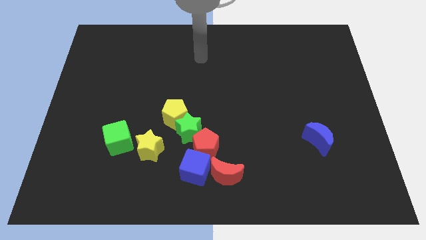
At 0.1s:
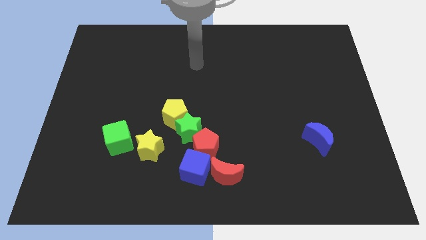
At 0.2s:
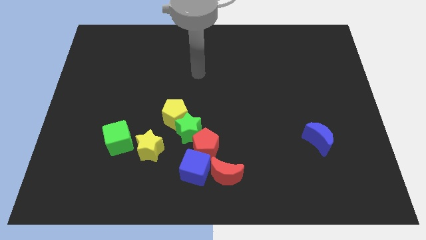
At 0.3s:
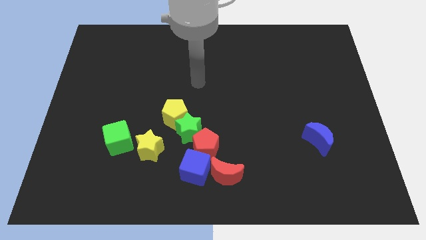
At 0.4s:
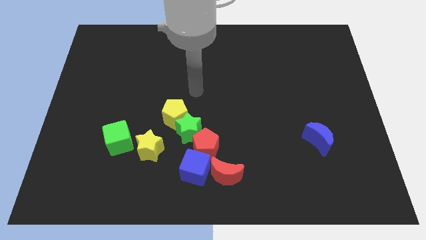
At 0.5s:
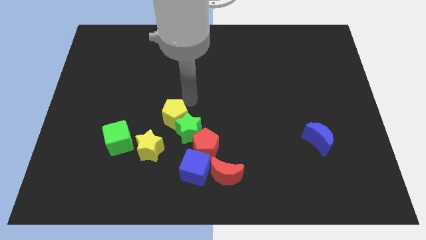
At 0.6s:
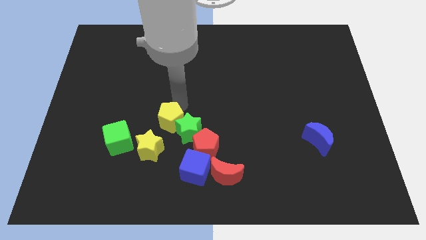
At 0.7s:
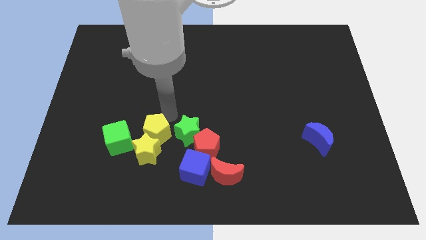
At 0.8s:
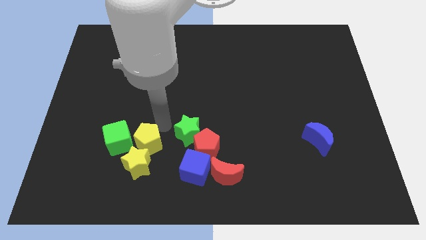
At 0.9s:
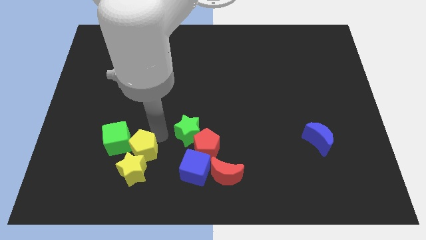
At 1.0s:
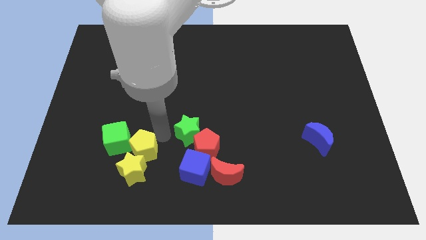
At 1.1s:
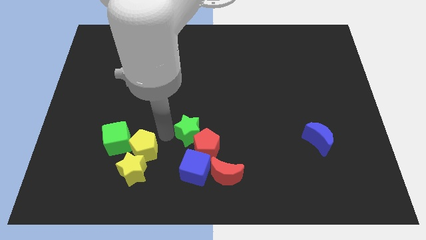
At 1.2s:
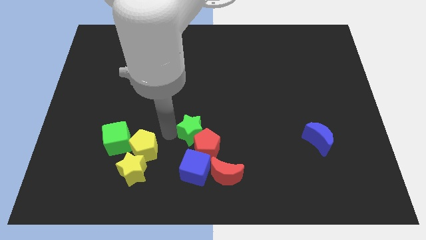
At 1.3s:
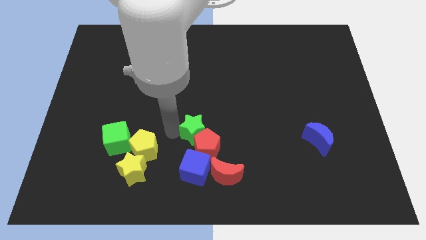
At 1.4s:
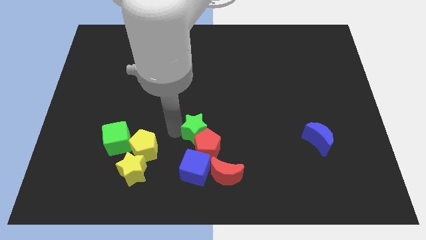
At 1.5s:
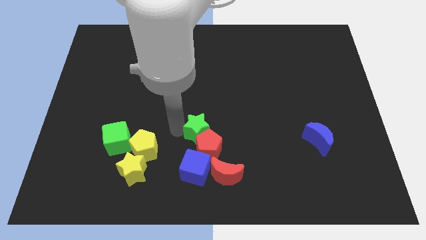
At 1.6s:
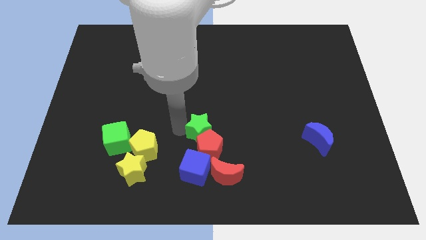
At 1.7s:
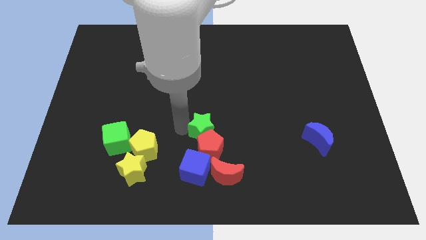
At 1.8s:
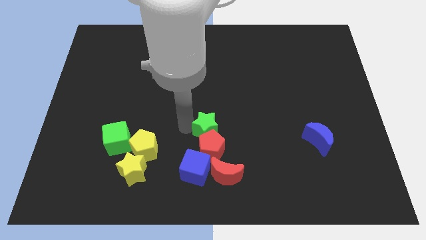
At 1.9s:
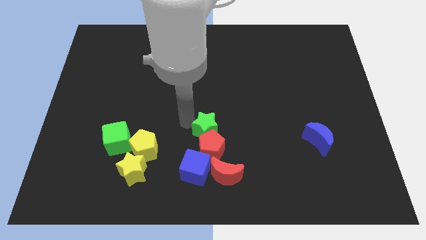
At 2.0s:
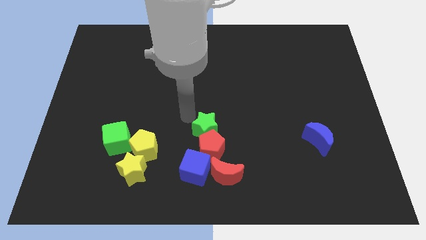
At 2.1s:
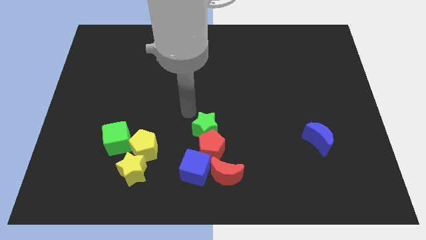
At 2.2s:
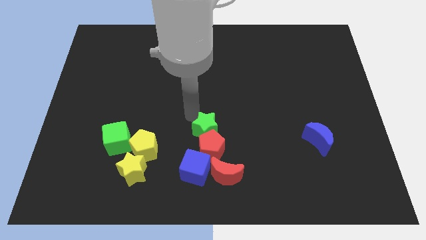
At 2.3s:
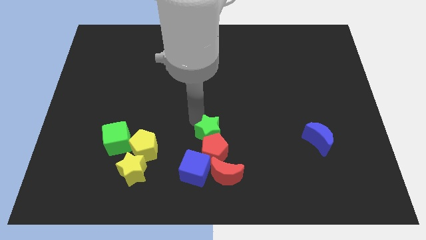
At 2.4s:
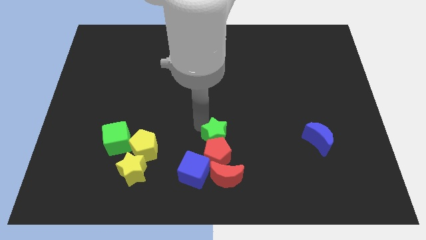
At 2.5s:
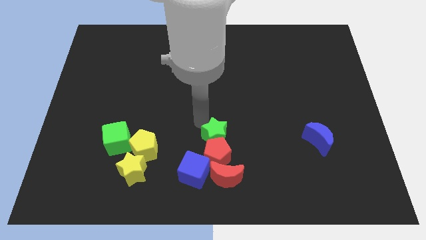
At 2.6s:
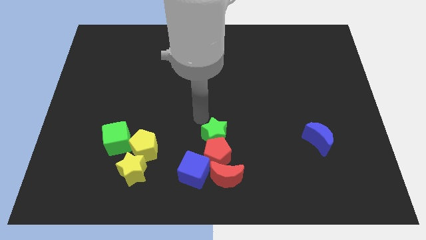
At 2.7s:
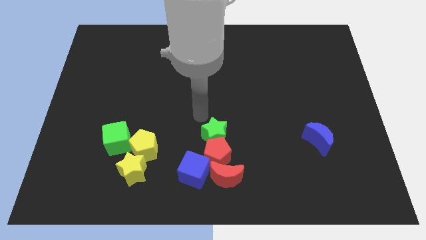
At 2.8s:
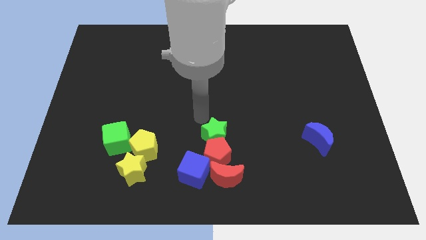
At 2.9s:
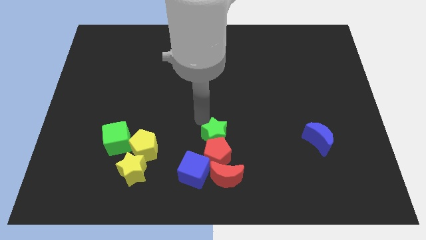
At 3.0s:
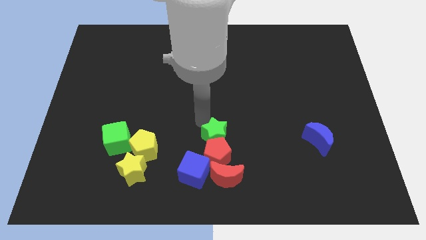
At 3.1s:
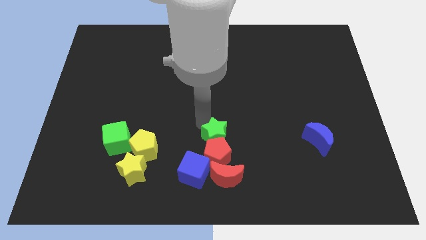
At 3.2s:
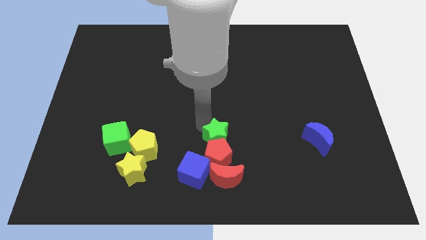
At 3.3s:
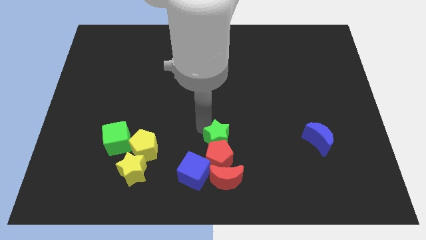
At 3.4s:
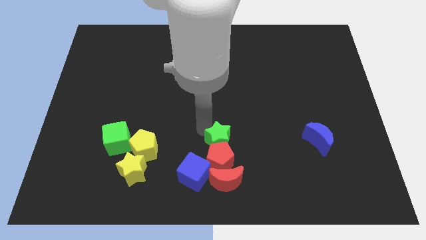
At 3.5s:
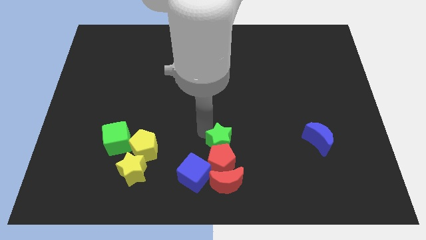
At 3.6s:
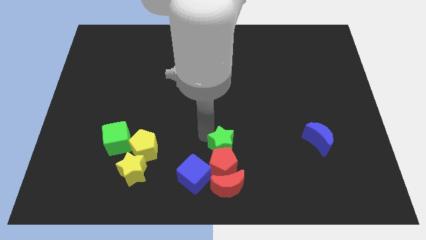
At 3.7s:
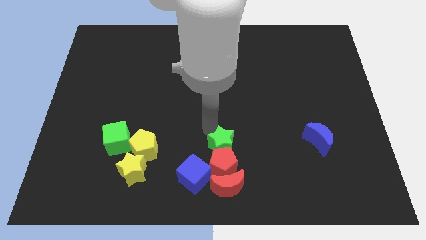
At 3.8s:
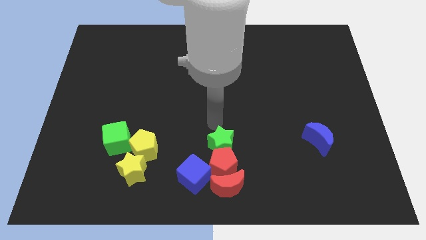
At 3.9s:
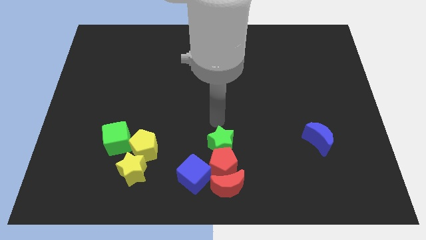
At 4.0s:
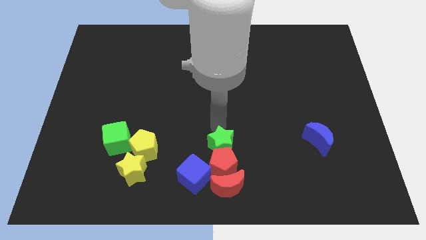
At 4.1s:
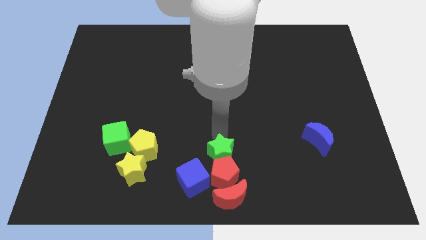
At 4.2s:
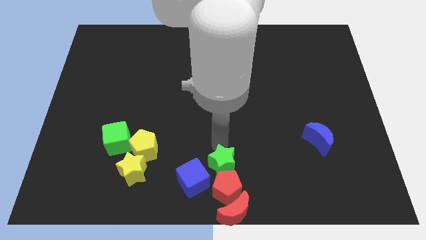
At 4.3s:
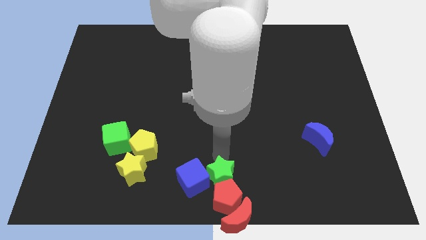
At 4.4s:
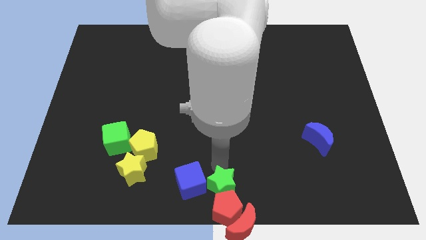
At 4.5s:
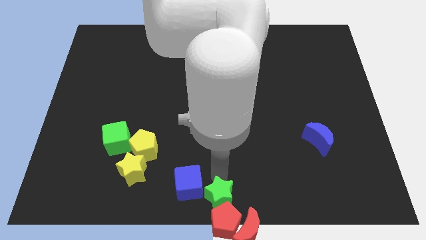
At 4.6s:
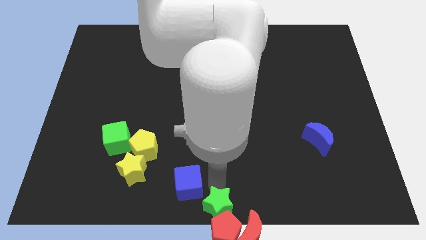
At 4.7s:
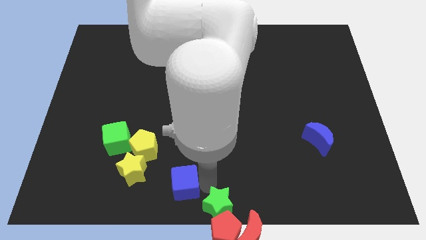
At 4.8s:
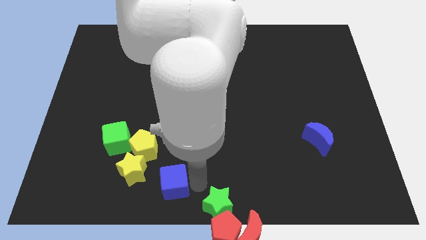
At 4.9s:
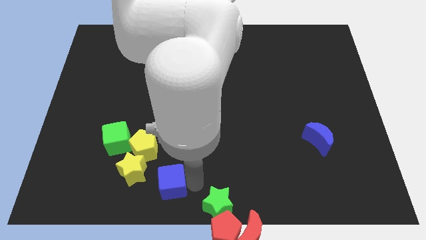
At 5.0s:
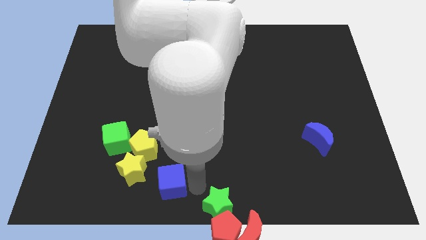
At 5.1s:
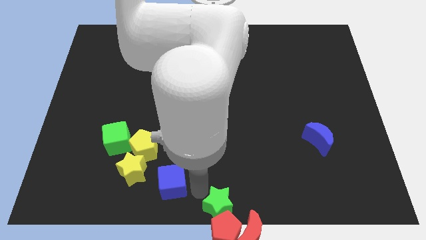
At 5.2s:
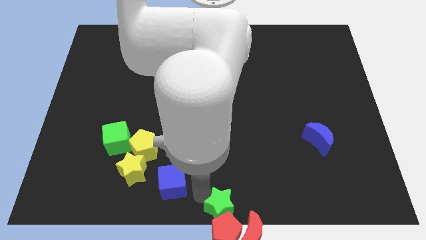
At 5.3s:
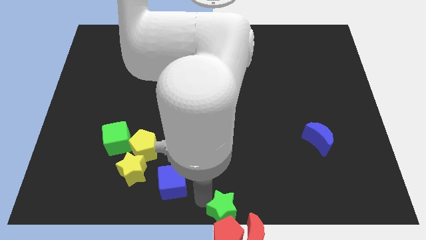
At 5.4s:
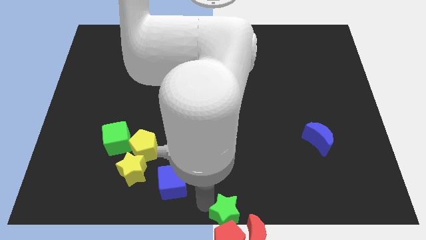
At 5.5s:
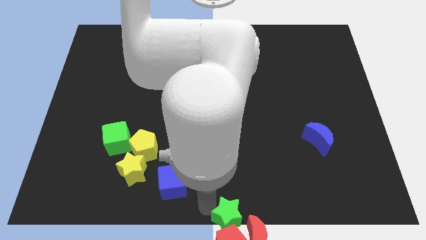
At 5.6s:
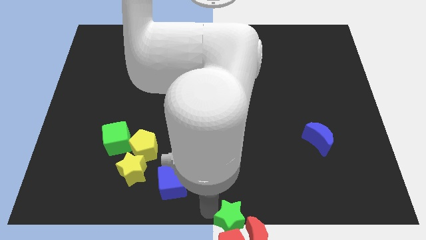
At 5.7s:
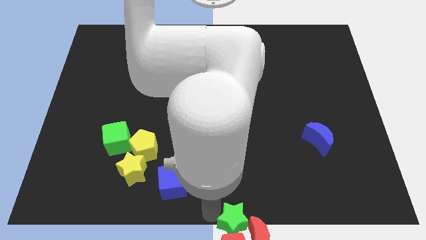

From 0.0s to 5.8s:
move the green star close to the red moon

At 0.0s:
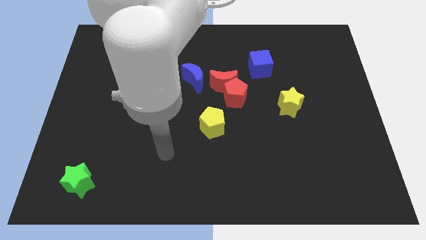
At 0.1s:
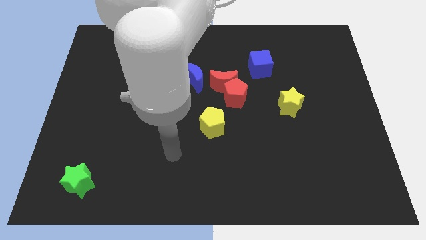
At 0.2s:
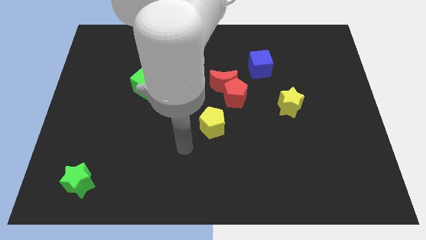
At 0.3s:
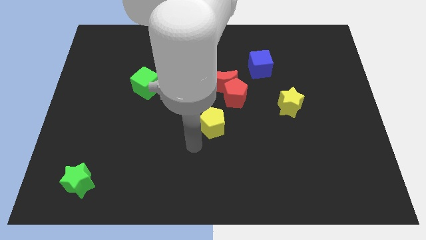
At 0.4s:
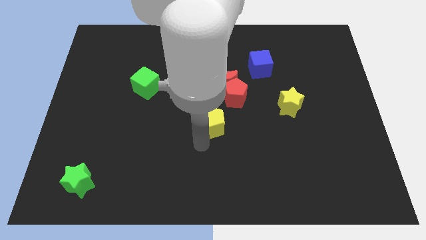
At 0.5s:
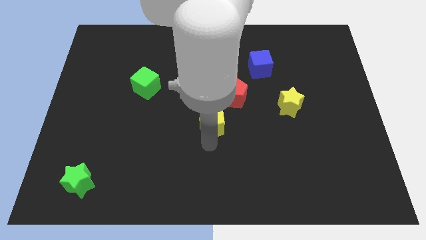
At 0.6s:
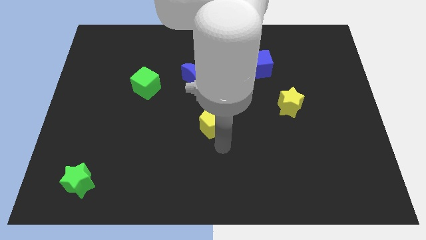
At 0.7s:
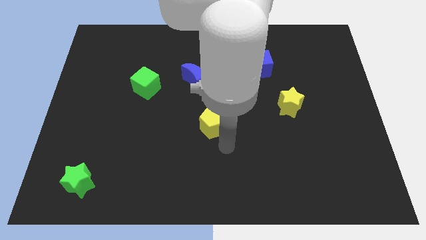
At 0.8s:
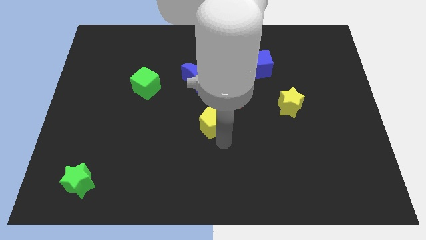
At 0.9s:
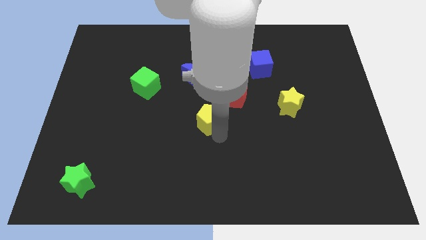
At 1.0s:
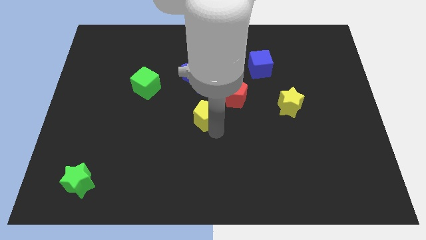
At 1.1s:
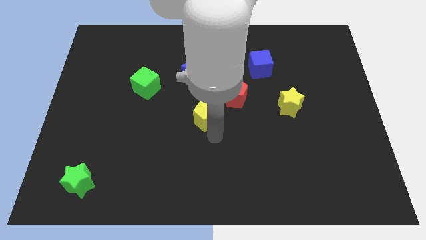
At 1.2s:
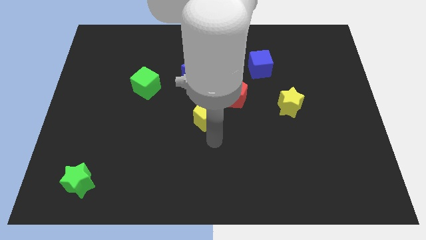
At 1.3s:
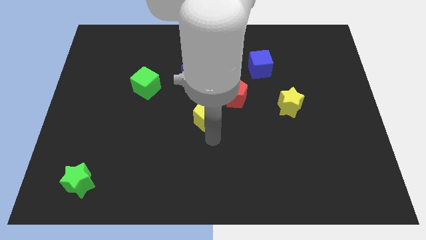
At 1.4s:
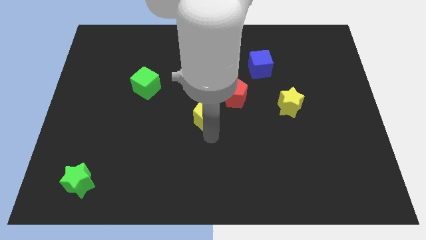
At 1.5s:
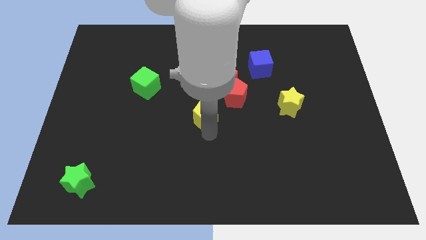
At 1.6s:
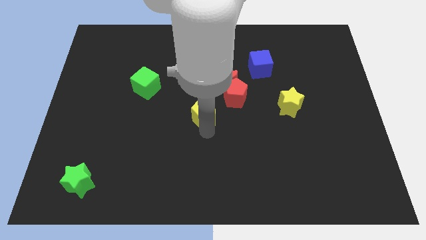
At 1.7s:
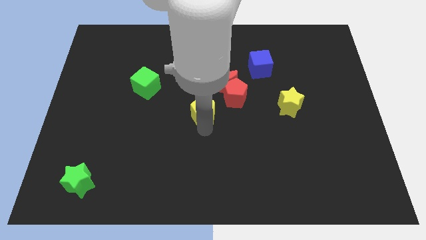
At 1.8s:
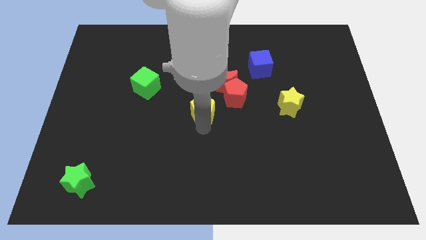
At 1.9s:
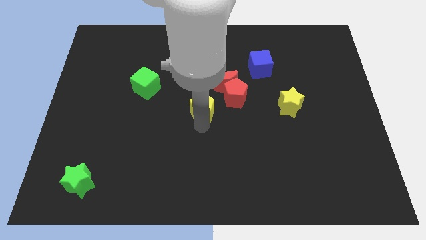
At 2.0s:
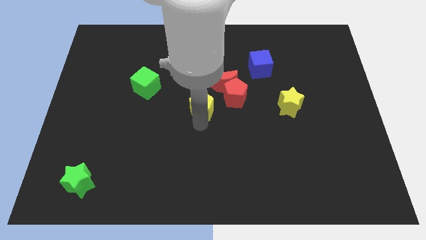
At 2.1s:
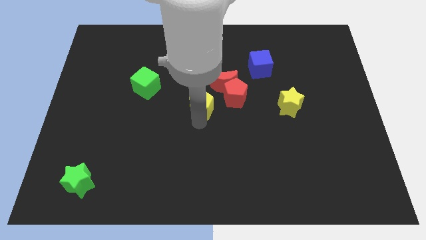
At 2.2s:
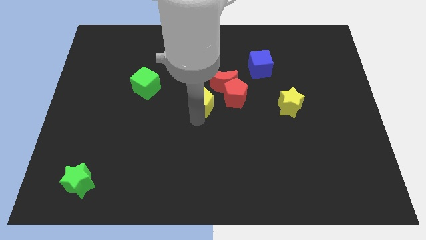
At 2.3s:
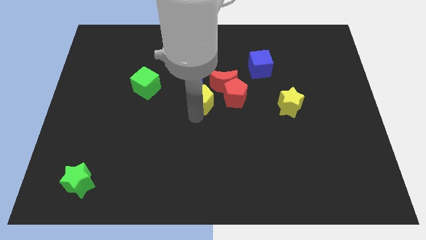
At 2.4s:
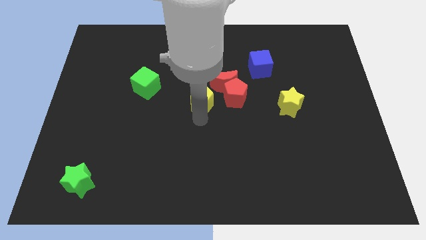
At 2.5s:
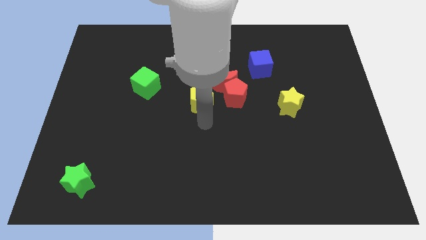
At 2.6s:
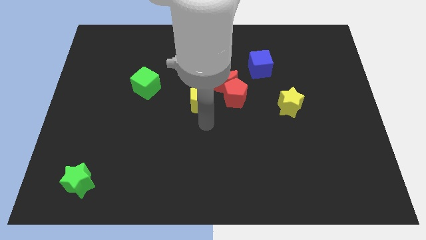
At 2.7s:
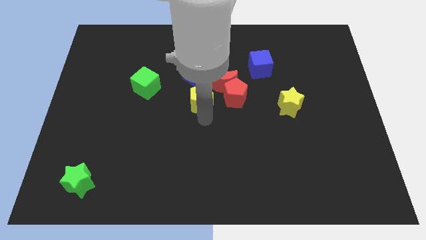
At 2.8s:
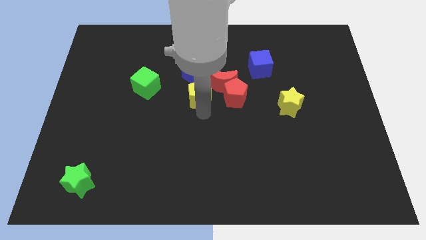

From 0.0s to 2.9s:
move the yellow pentagon towards the blue moon
